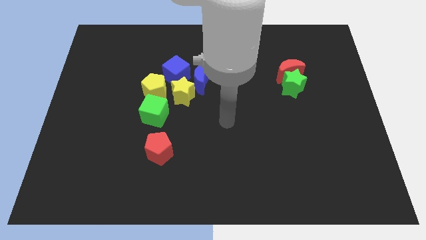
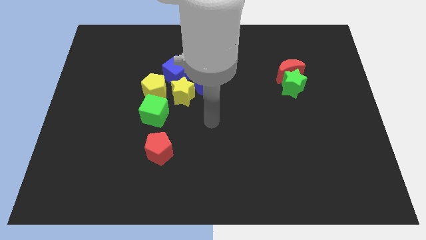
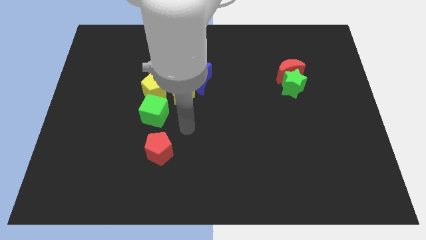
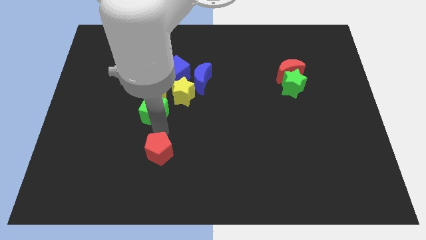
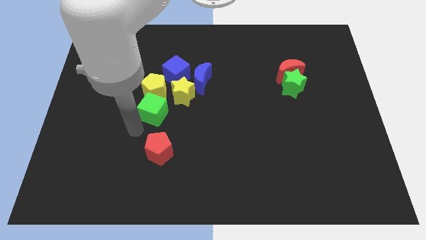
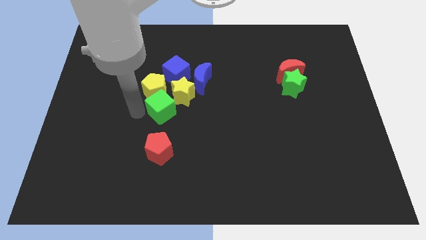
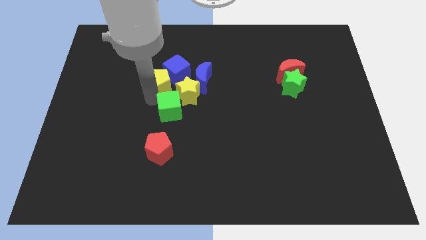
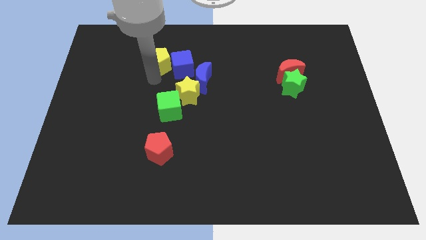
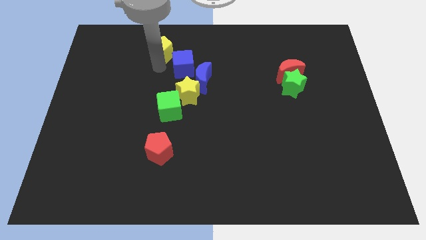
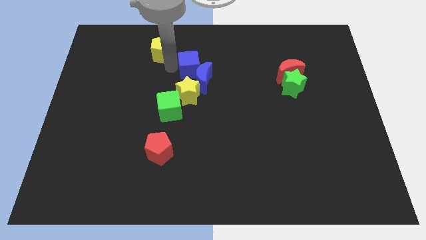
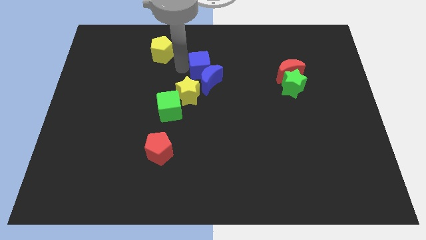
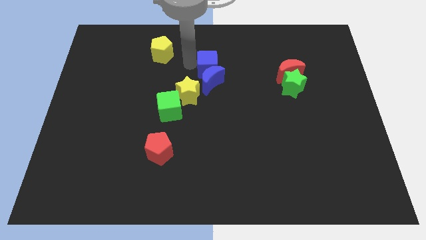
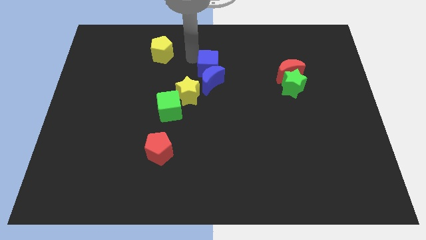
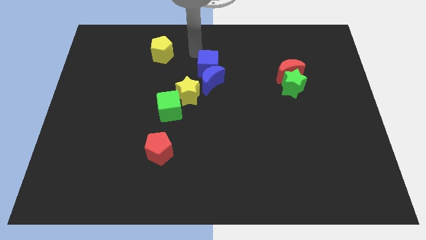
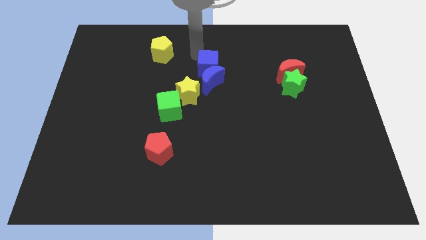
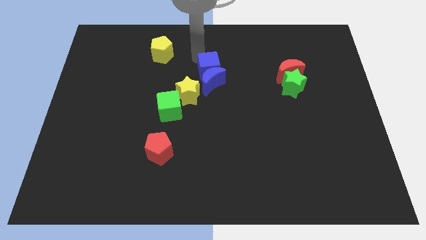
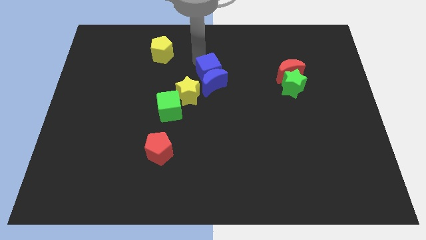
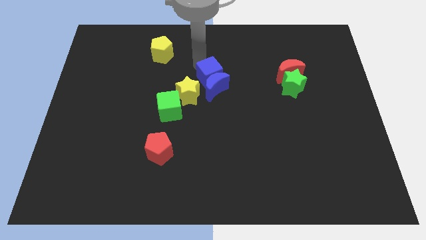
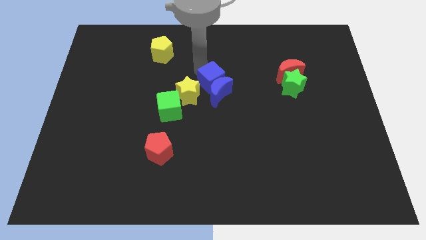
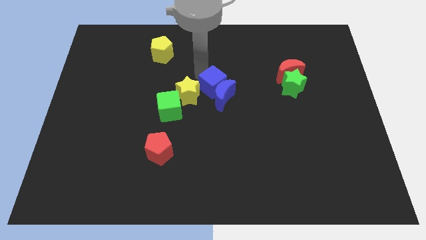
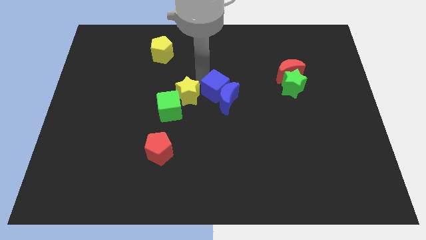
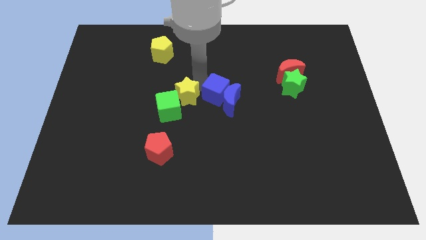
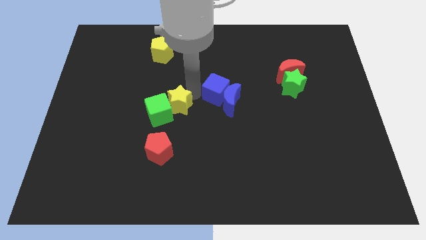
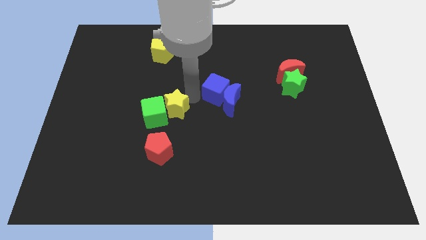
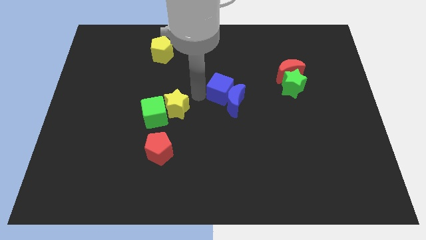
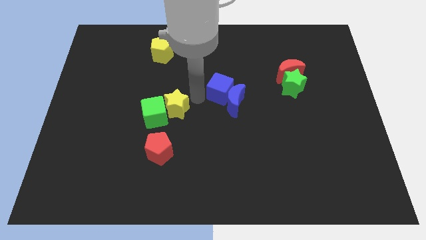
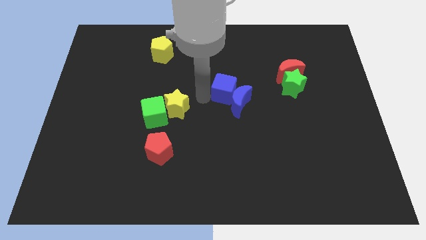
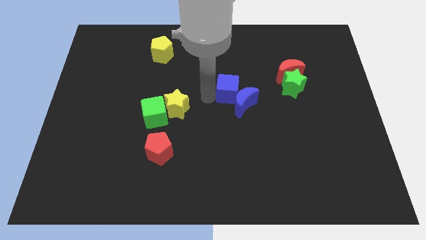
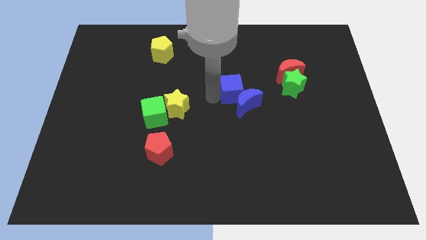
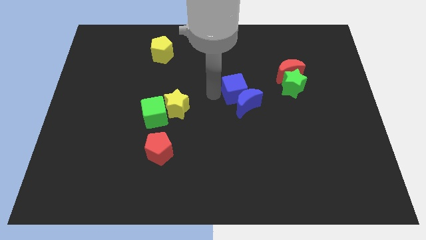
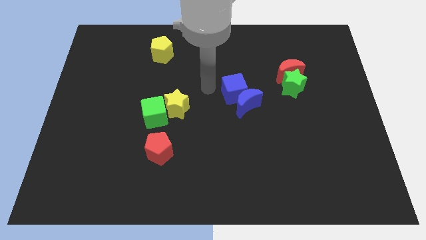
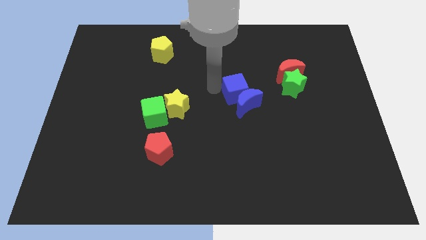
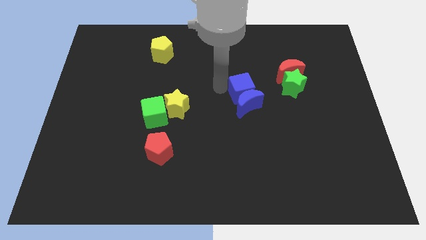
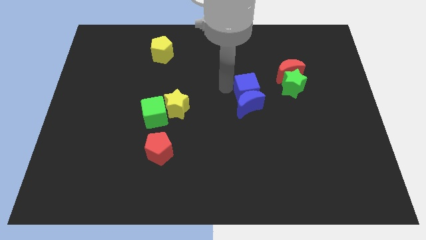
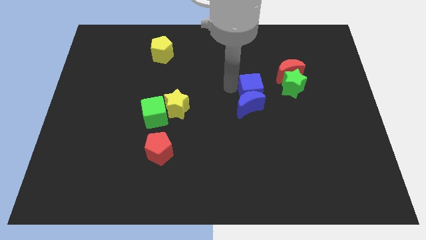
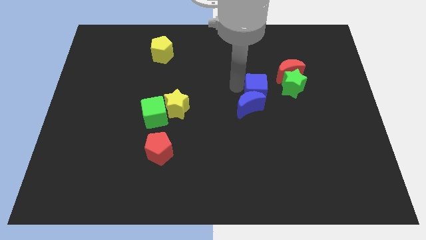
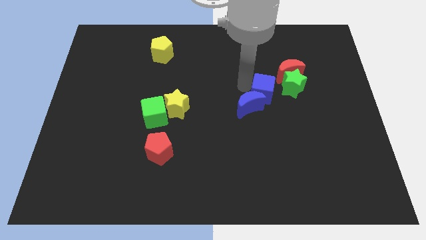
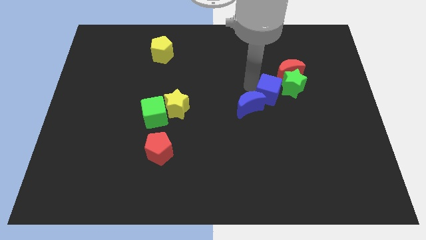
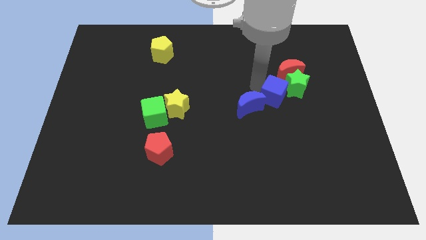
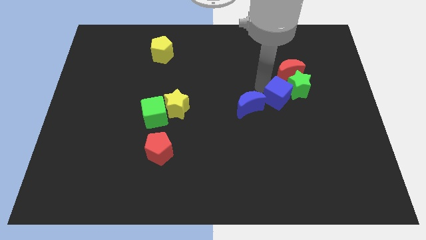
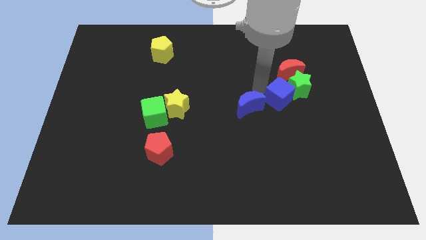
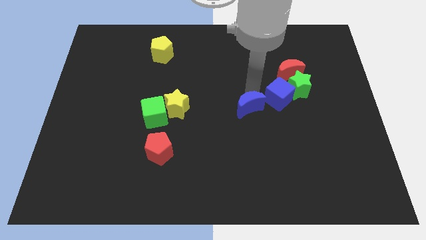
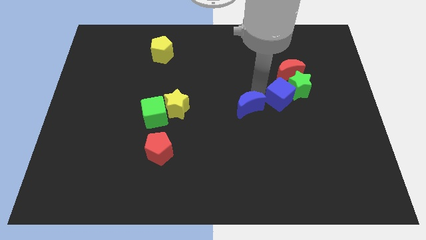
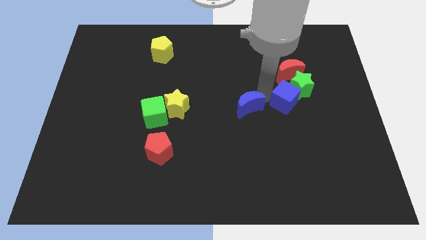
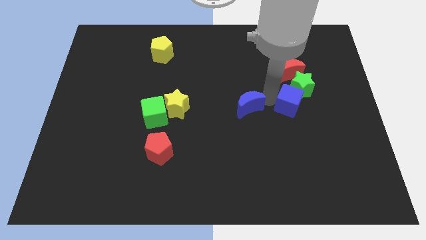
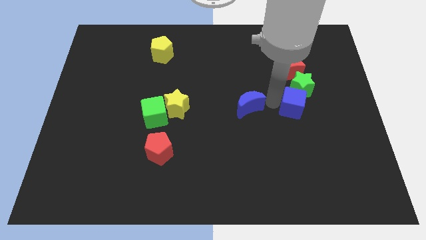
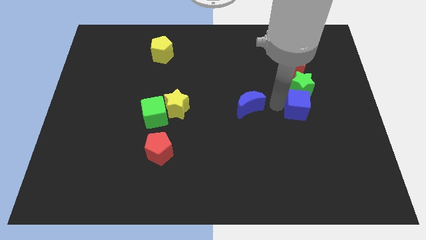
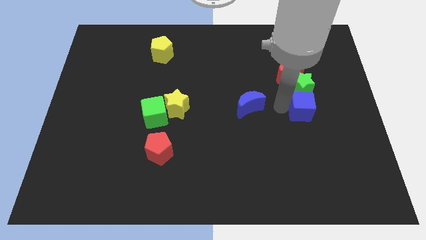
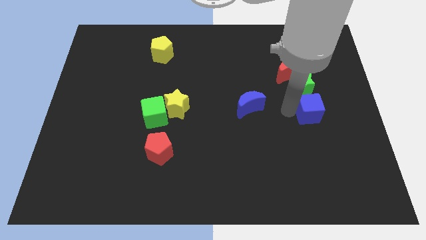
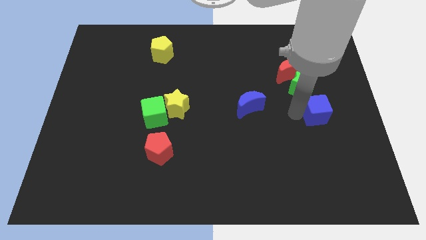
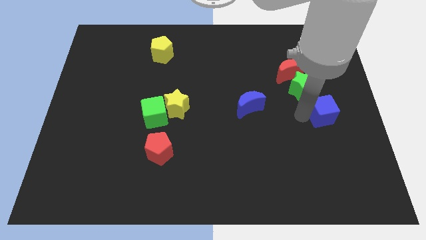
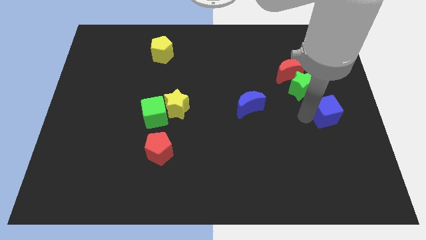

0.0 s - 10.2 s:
slide the blue cube to the right side

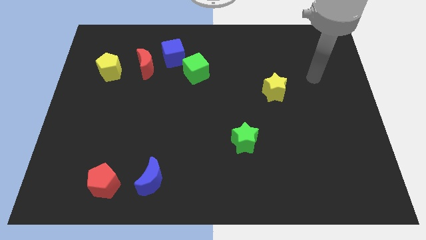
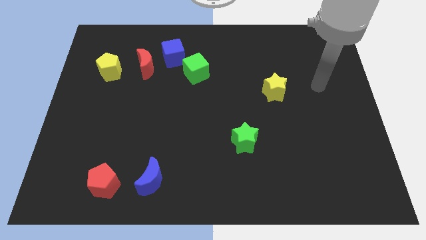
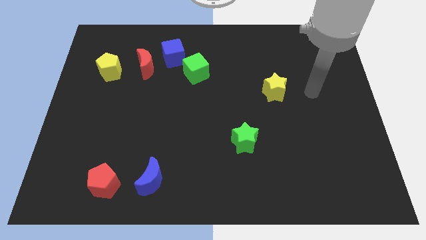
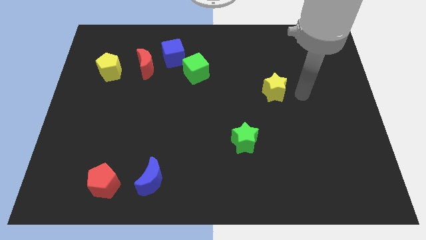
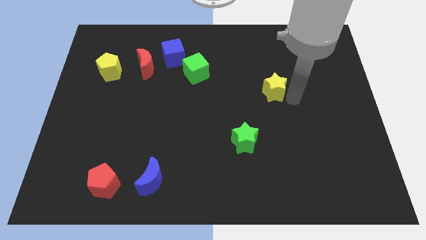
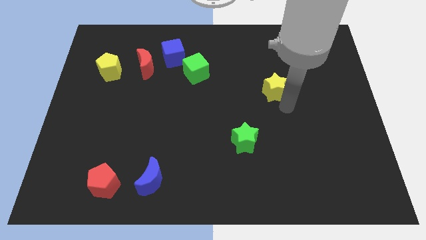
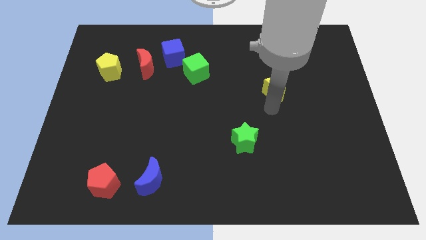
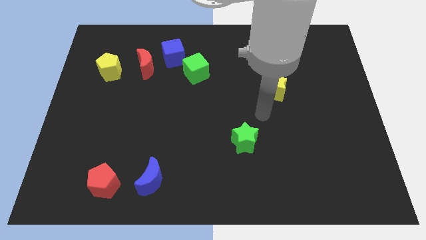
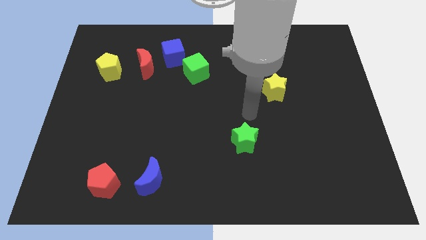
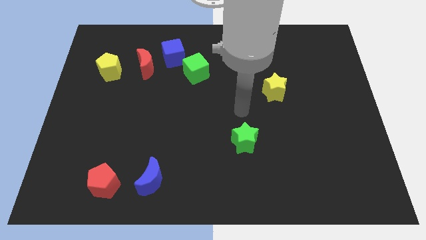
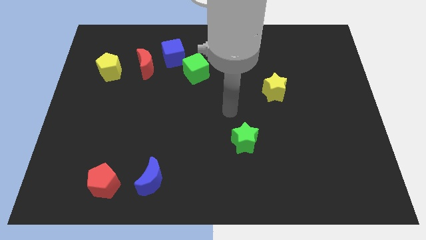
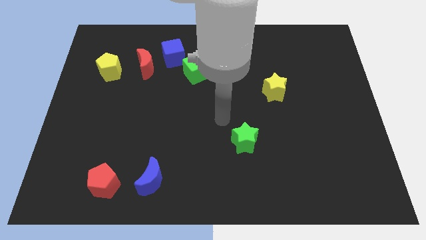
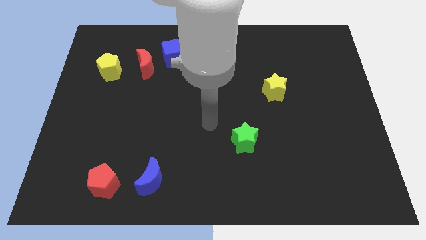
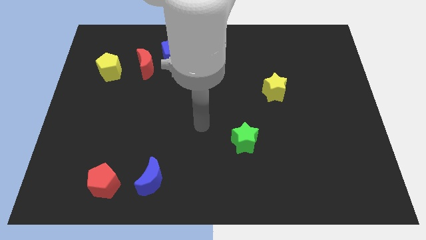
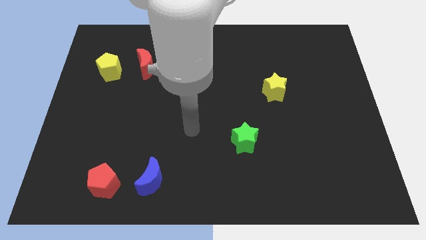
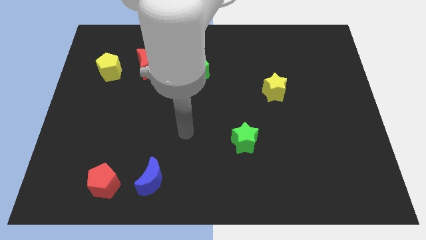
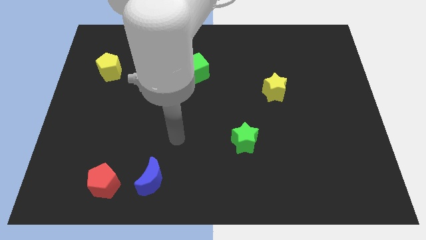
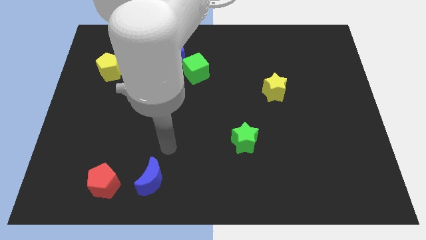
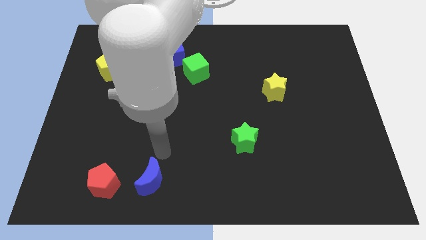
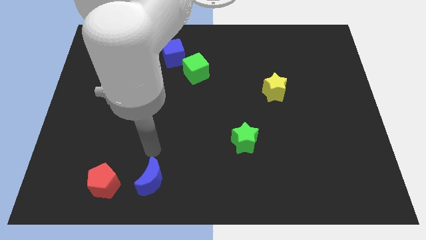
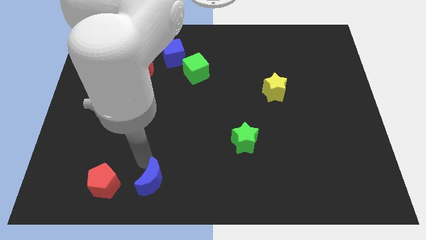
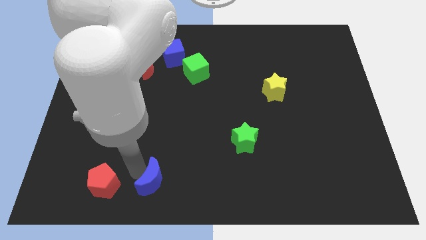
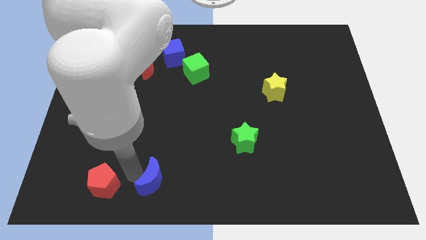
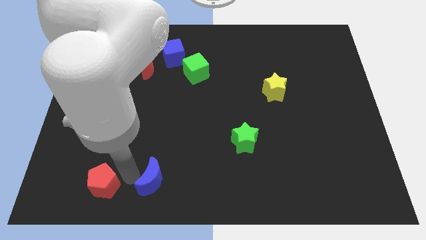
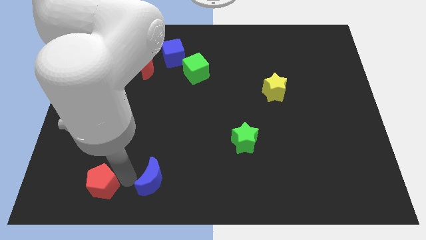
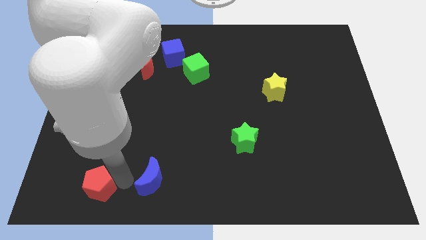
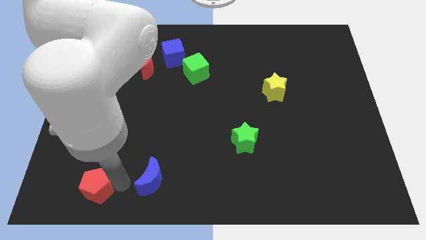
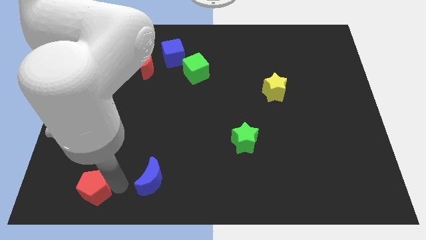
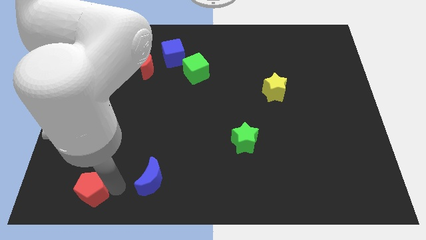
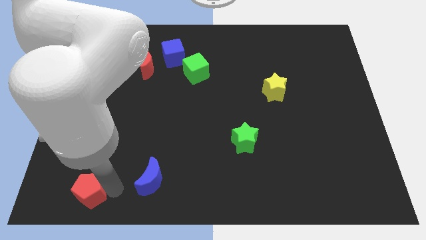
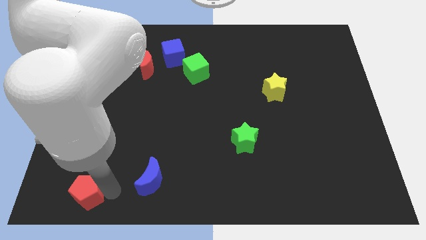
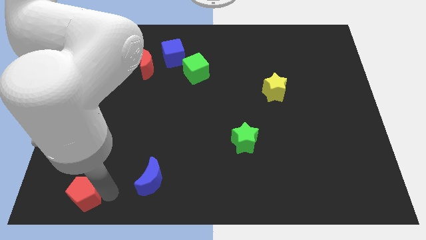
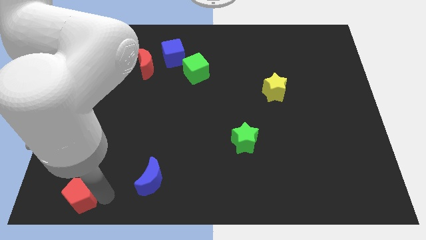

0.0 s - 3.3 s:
move the red pentagon to the bottom left
